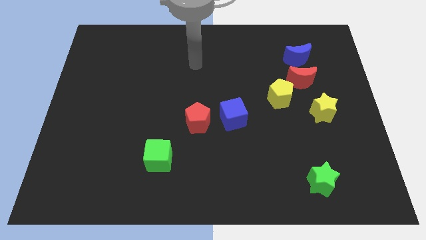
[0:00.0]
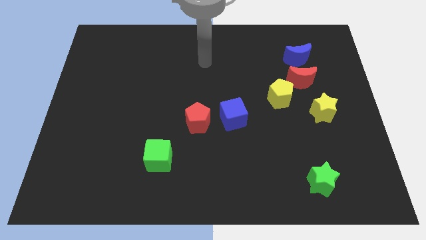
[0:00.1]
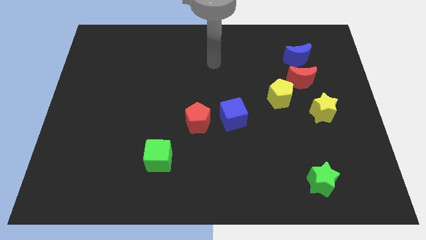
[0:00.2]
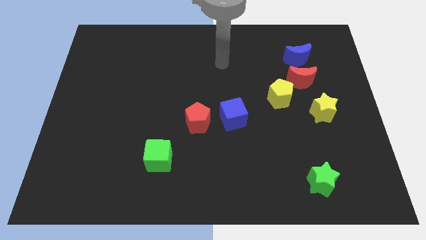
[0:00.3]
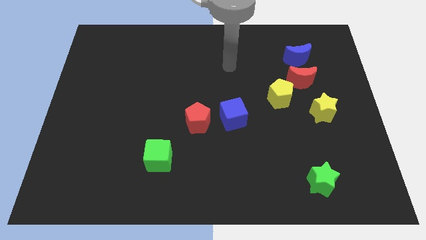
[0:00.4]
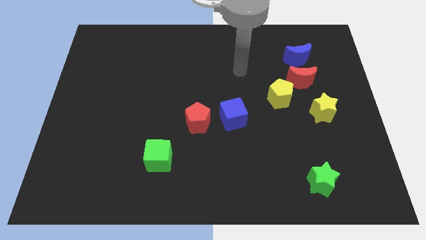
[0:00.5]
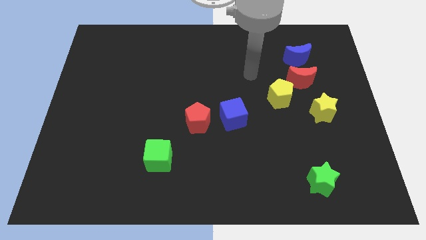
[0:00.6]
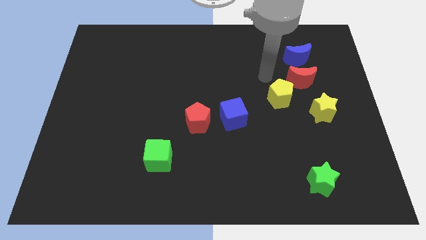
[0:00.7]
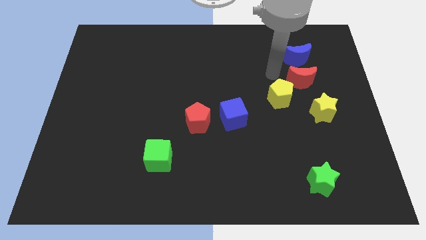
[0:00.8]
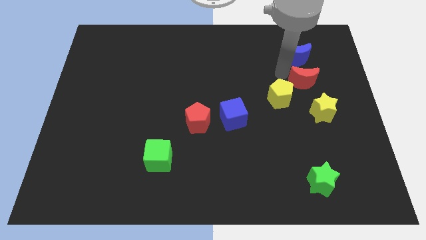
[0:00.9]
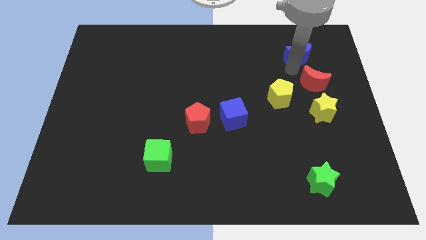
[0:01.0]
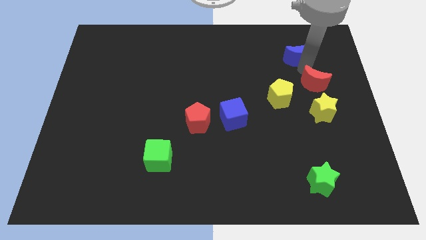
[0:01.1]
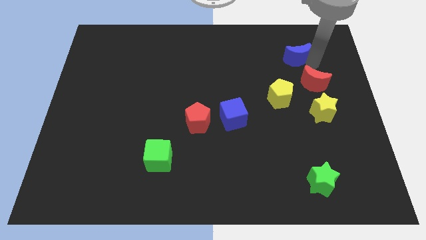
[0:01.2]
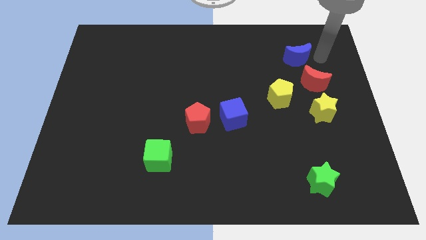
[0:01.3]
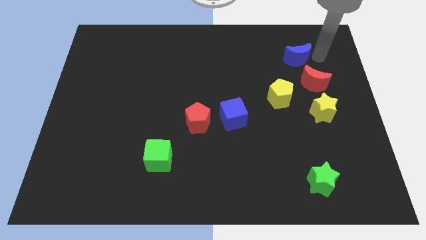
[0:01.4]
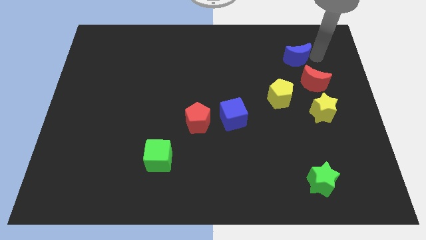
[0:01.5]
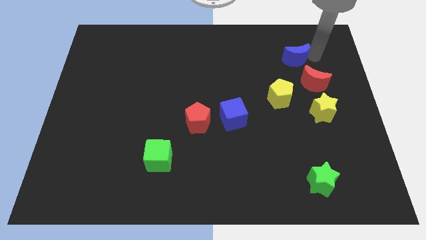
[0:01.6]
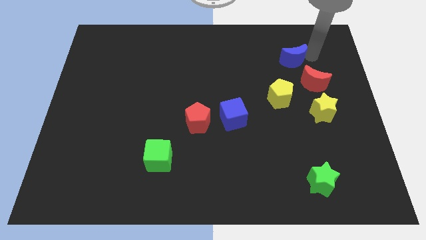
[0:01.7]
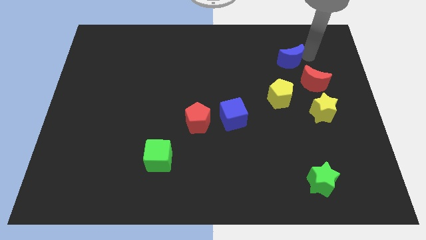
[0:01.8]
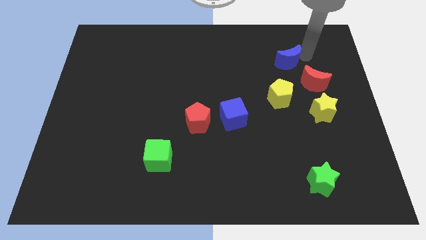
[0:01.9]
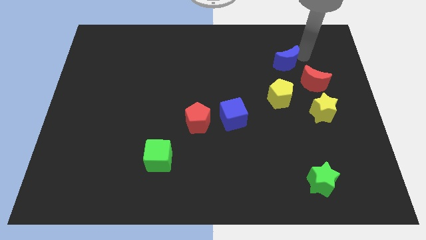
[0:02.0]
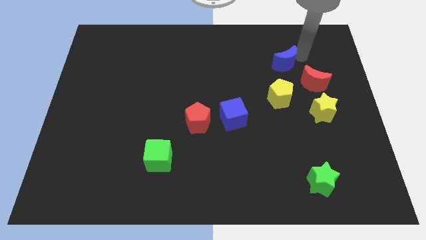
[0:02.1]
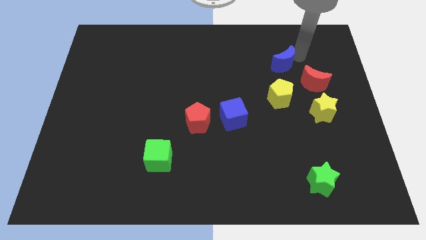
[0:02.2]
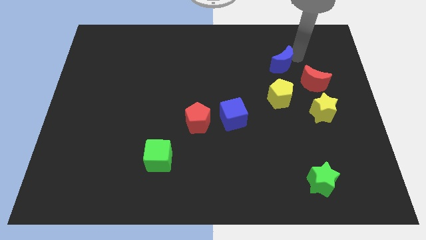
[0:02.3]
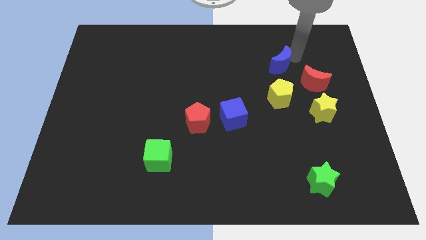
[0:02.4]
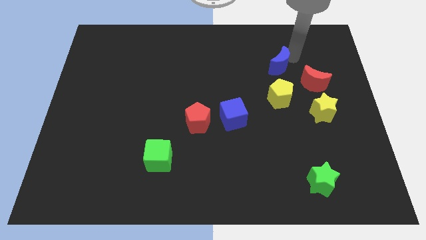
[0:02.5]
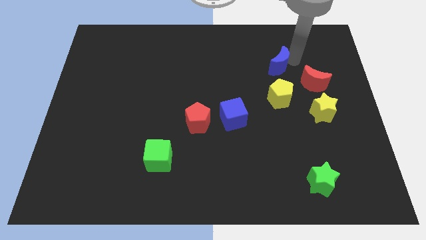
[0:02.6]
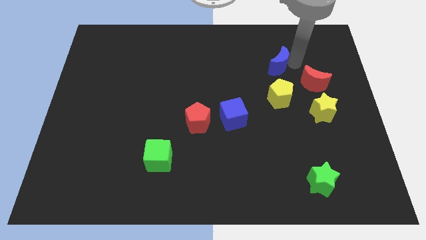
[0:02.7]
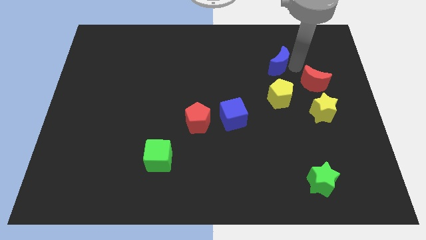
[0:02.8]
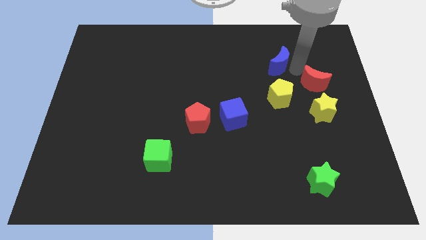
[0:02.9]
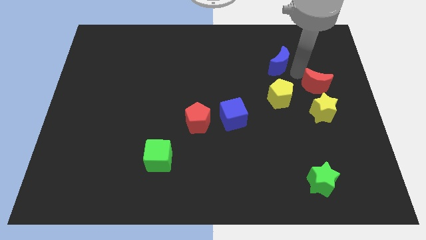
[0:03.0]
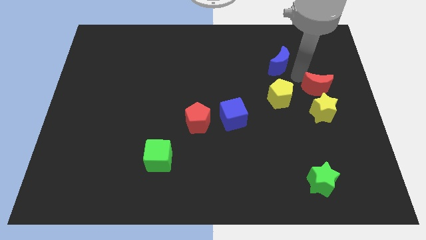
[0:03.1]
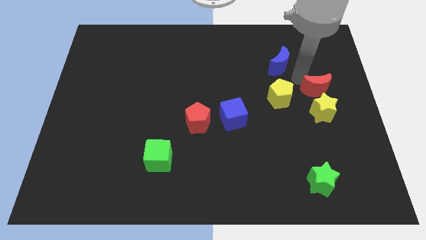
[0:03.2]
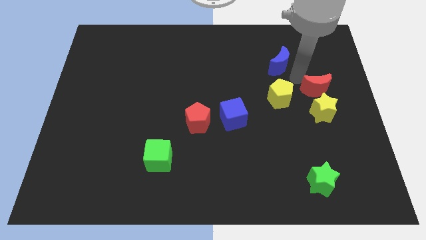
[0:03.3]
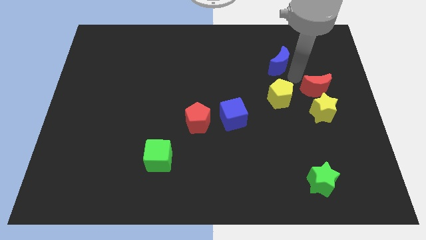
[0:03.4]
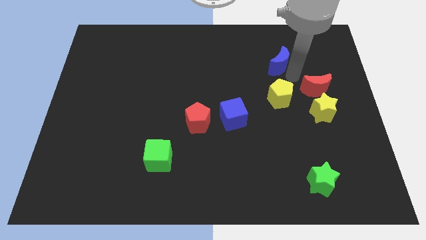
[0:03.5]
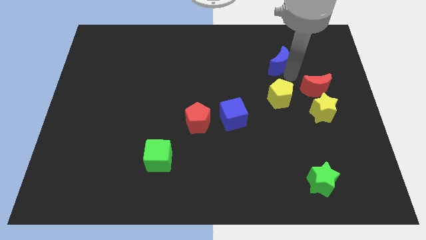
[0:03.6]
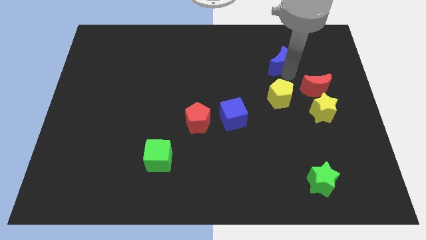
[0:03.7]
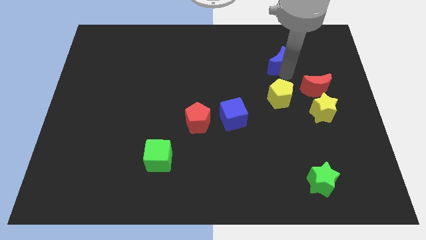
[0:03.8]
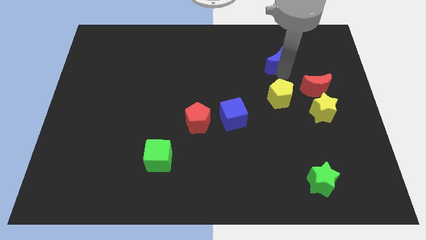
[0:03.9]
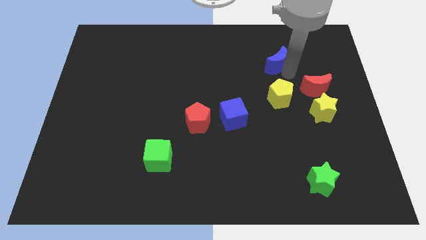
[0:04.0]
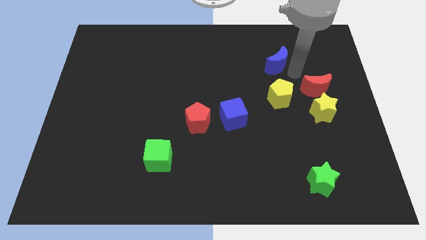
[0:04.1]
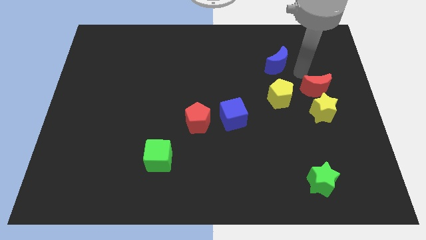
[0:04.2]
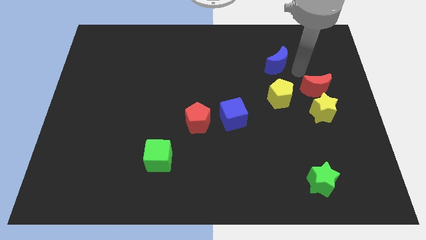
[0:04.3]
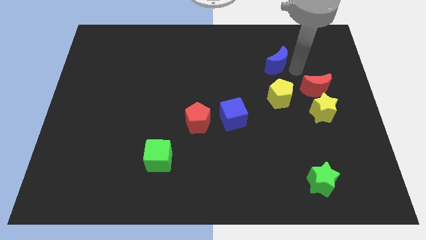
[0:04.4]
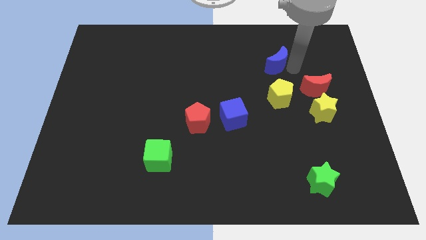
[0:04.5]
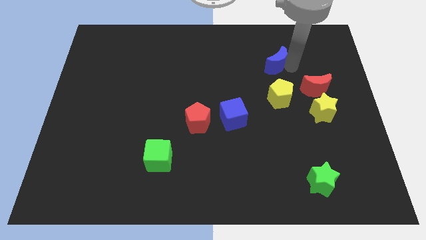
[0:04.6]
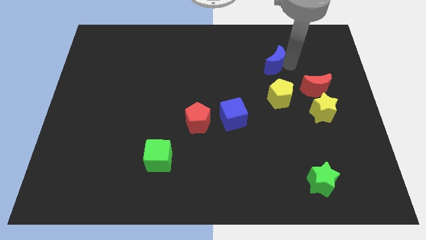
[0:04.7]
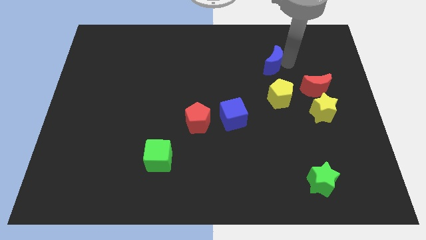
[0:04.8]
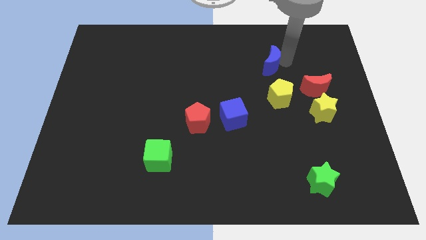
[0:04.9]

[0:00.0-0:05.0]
move the blue moon left a little

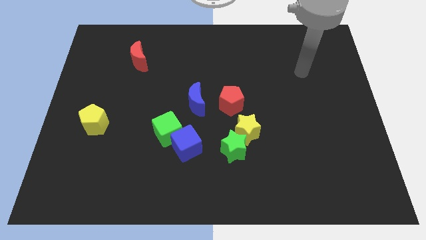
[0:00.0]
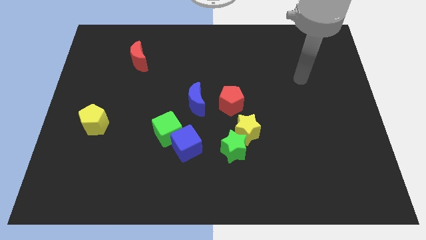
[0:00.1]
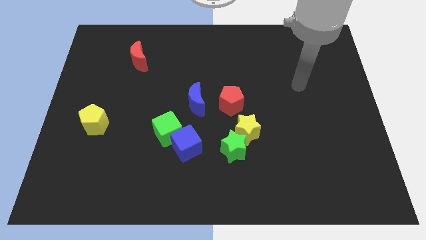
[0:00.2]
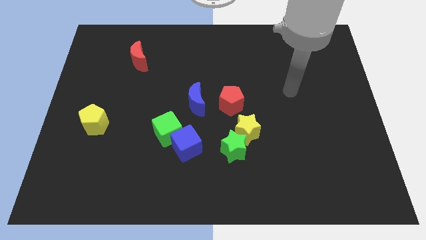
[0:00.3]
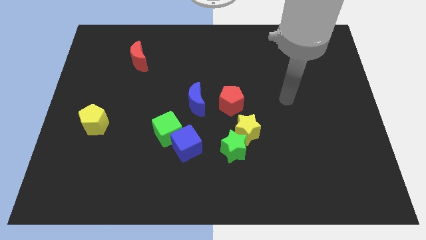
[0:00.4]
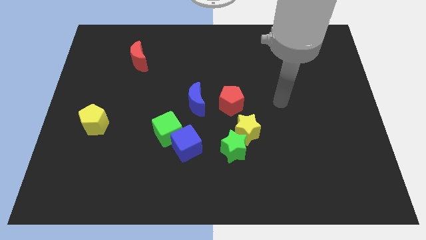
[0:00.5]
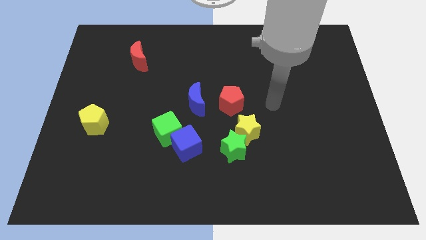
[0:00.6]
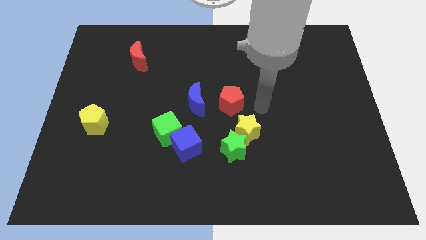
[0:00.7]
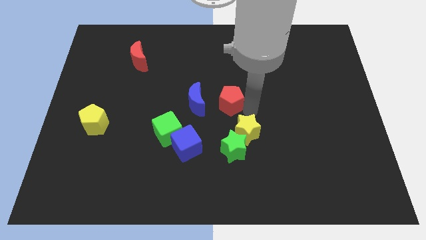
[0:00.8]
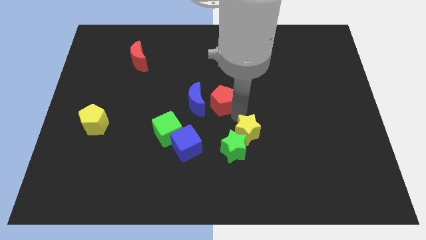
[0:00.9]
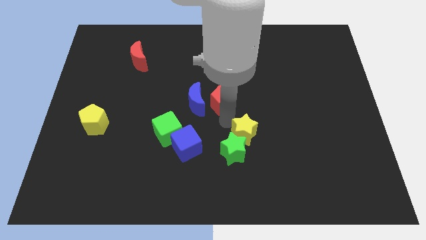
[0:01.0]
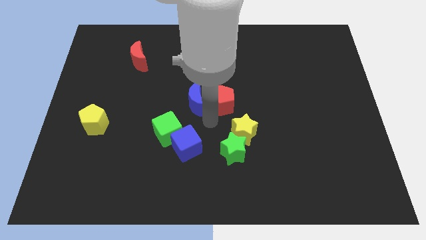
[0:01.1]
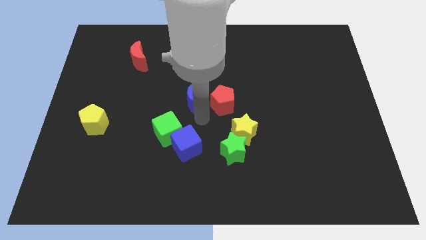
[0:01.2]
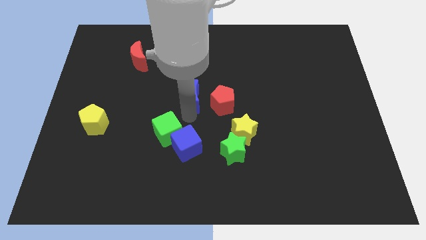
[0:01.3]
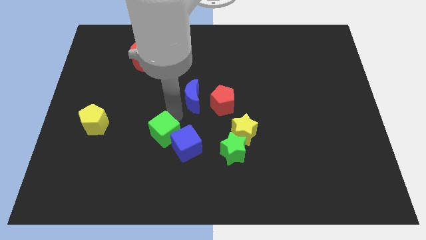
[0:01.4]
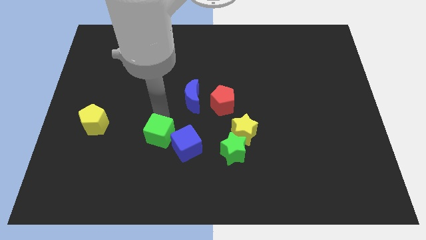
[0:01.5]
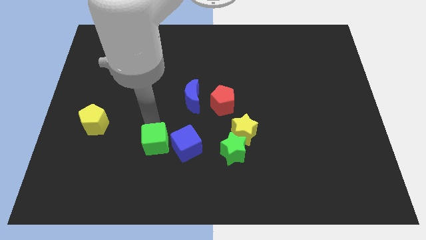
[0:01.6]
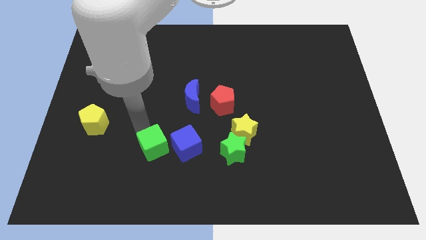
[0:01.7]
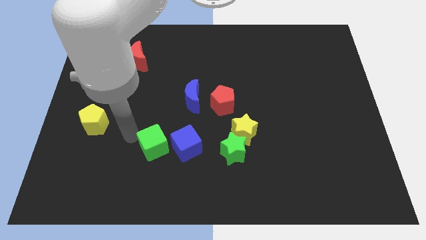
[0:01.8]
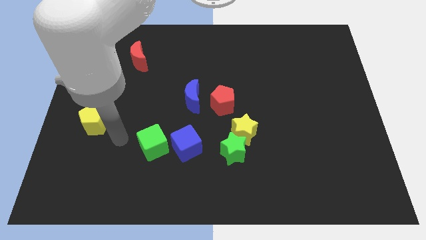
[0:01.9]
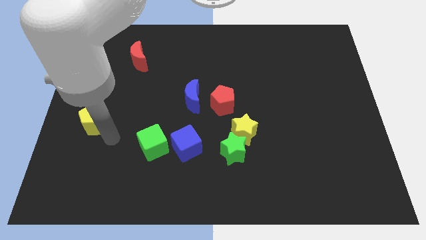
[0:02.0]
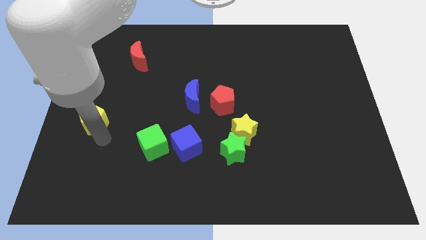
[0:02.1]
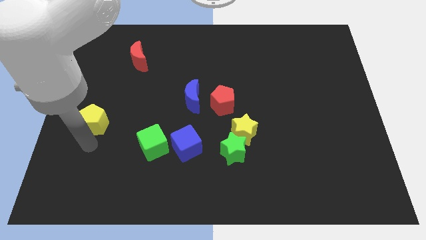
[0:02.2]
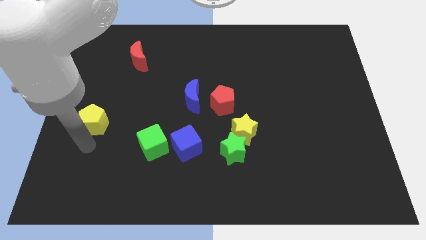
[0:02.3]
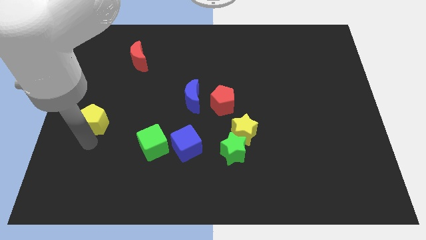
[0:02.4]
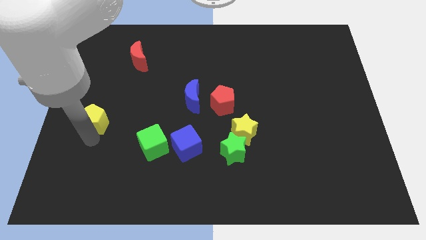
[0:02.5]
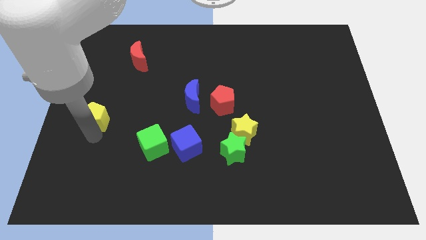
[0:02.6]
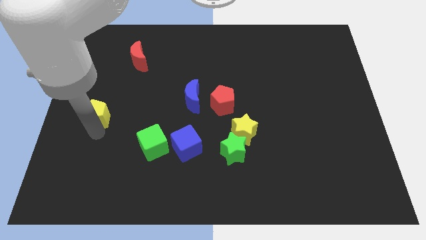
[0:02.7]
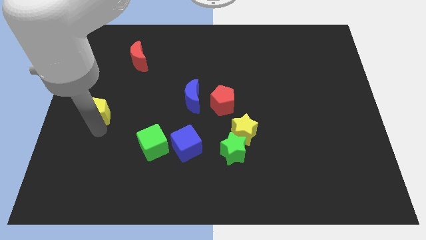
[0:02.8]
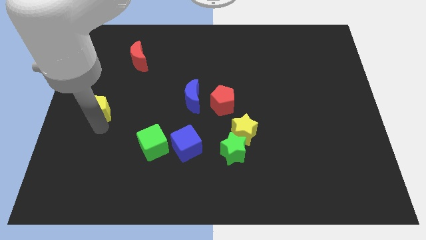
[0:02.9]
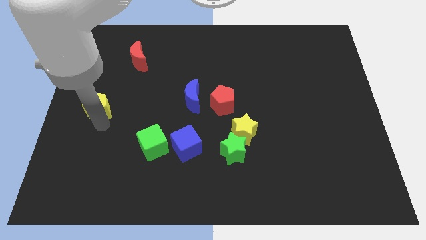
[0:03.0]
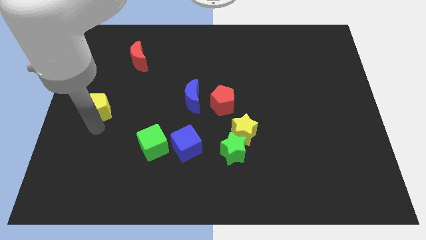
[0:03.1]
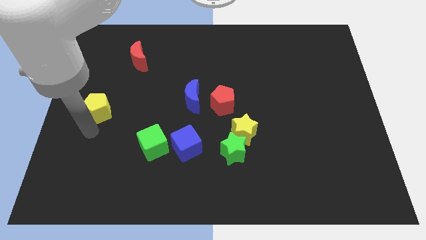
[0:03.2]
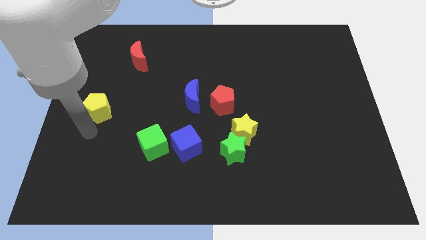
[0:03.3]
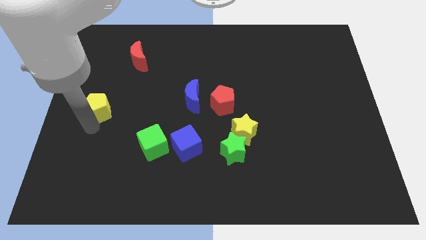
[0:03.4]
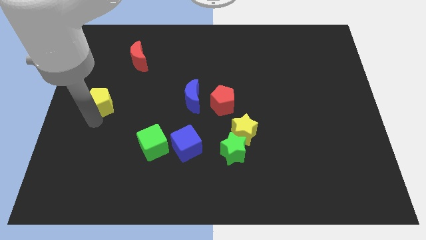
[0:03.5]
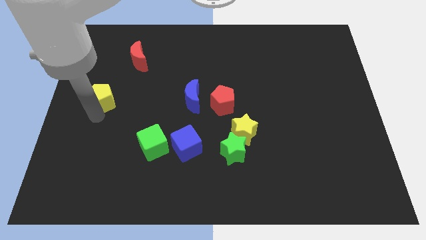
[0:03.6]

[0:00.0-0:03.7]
slightly slide the yellow pentagon up
